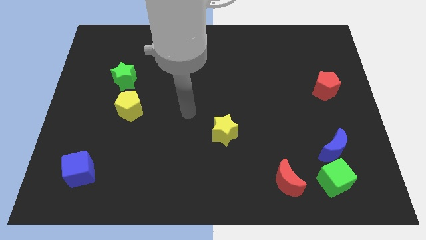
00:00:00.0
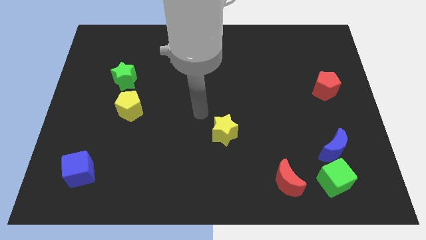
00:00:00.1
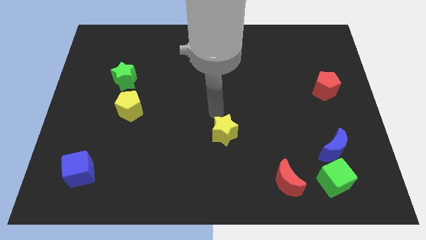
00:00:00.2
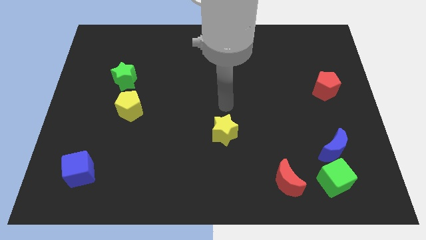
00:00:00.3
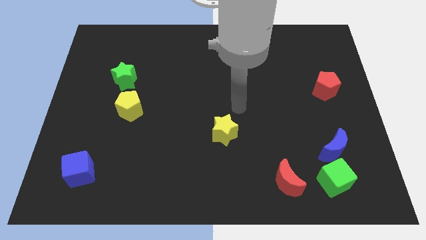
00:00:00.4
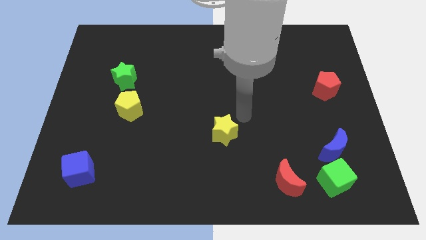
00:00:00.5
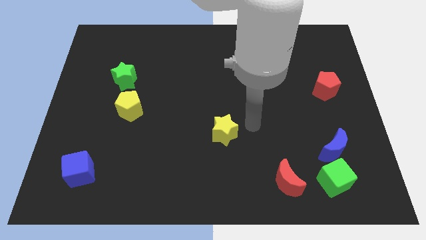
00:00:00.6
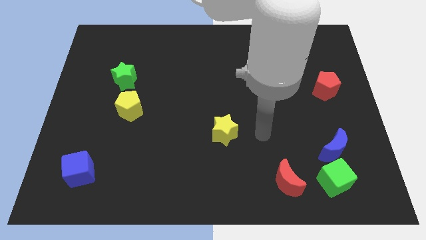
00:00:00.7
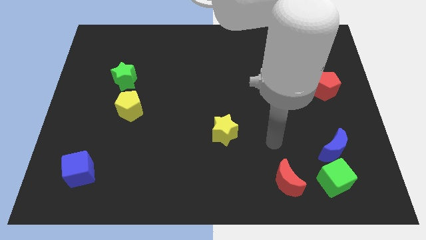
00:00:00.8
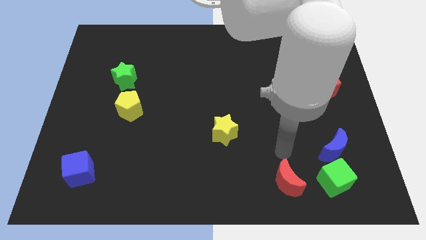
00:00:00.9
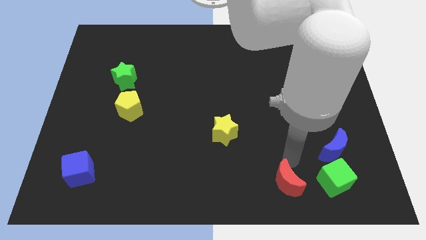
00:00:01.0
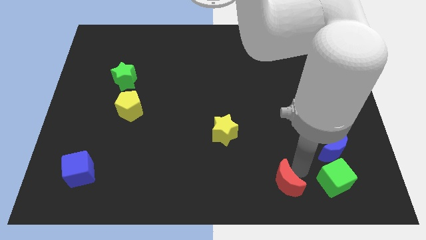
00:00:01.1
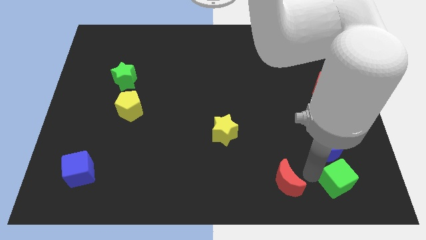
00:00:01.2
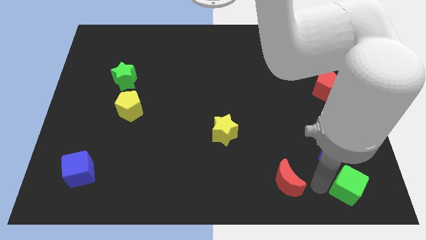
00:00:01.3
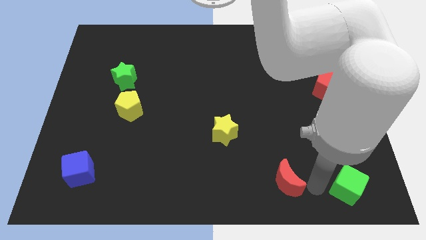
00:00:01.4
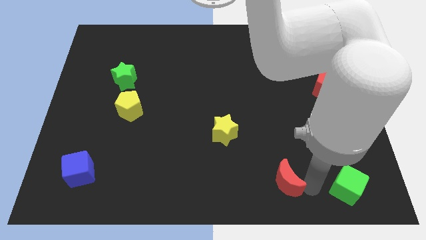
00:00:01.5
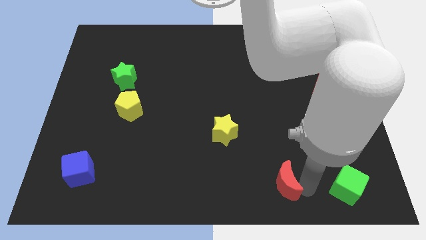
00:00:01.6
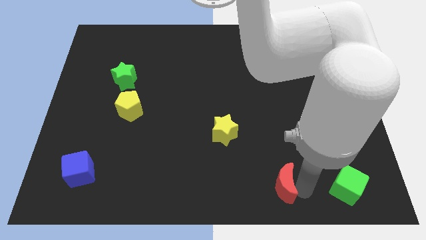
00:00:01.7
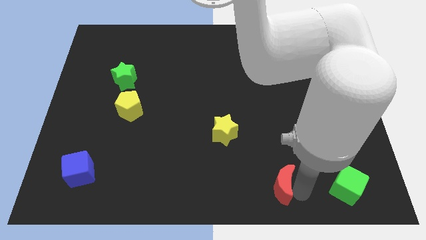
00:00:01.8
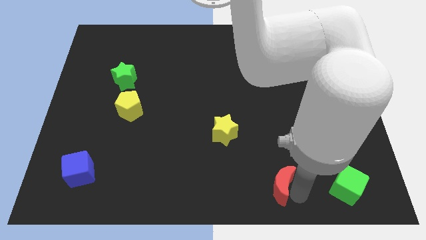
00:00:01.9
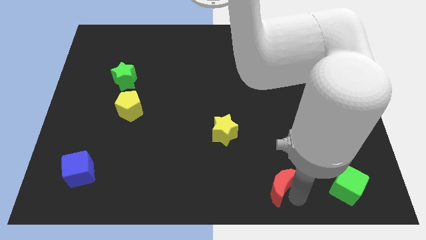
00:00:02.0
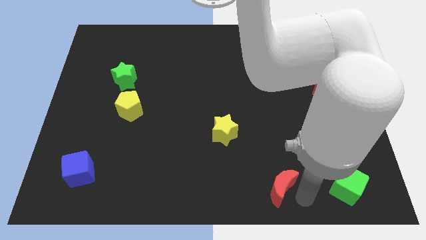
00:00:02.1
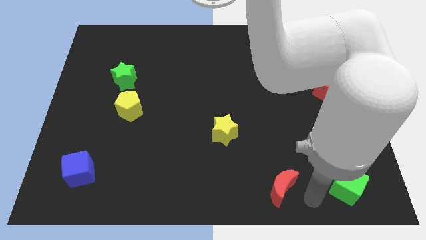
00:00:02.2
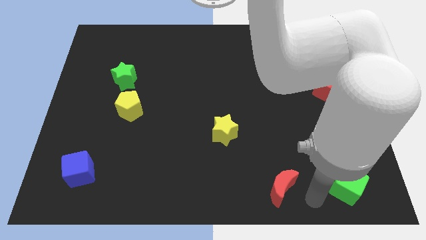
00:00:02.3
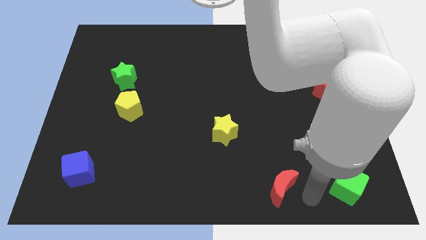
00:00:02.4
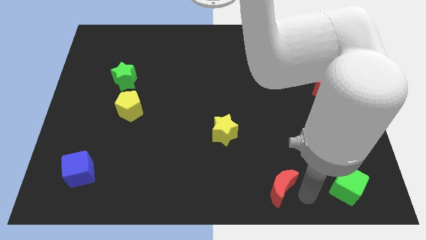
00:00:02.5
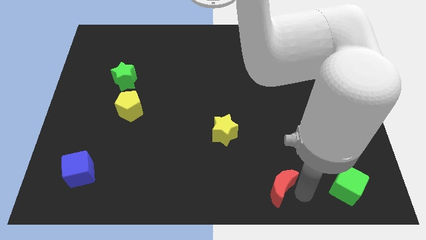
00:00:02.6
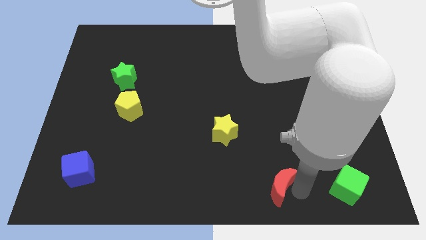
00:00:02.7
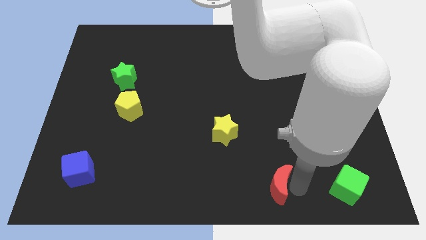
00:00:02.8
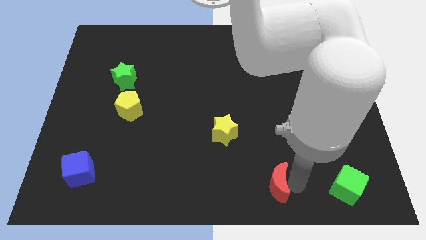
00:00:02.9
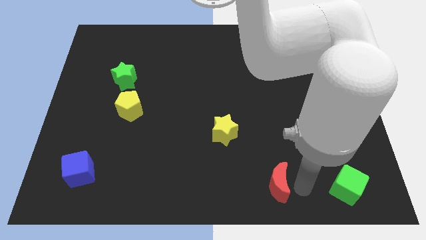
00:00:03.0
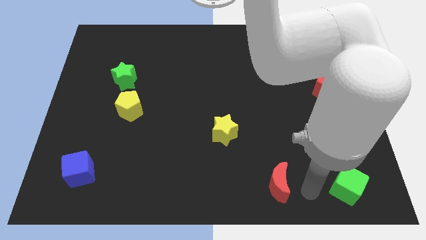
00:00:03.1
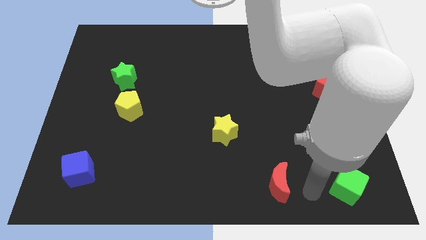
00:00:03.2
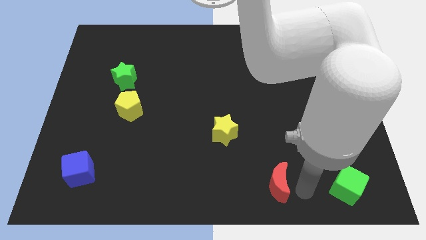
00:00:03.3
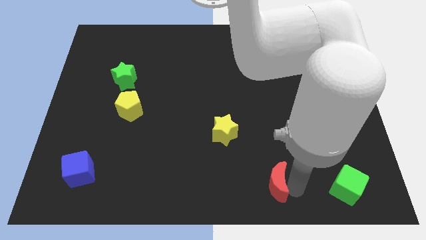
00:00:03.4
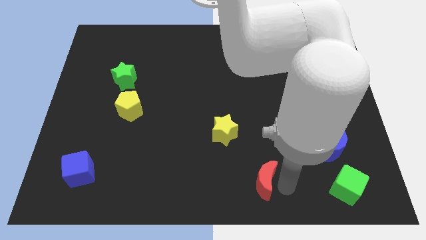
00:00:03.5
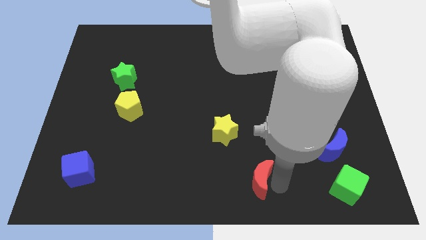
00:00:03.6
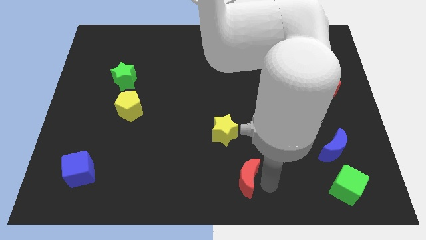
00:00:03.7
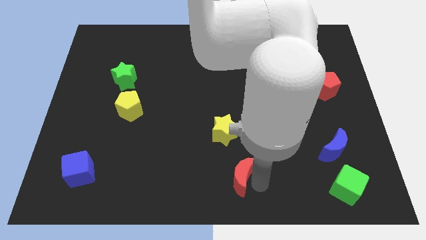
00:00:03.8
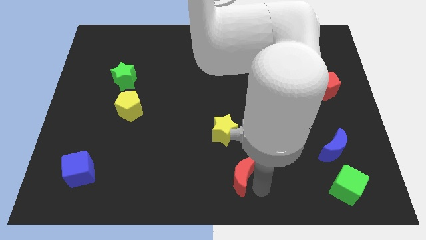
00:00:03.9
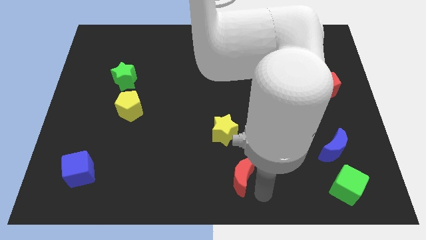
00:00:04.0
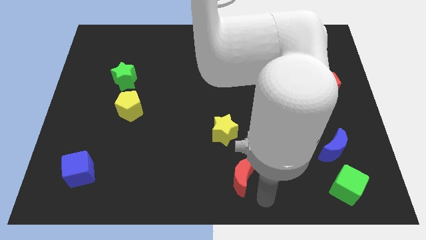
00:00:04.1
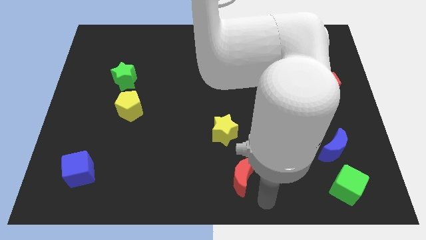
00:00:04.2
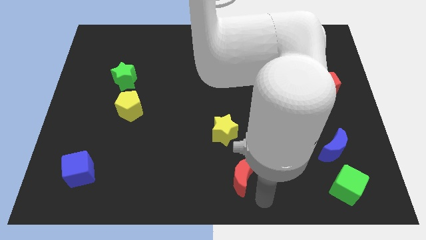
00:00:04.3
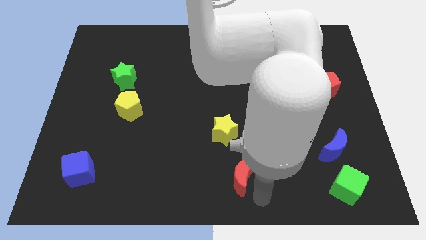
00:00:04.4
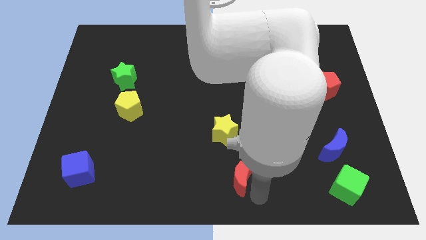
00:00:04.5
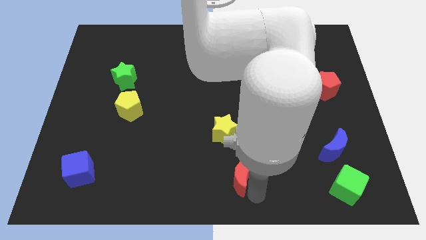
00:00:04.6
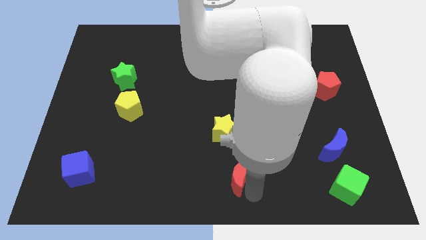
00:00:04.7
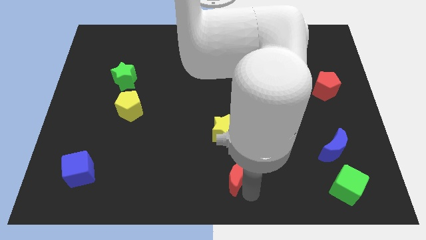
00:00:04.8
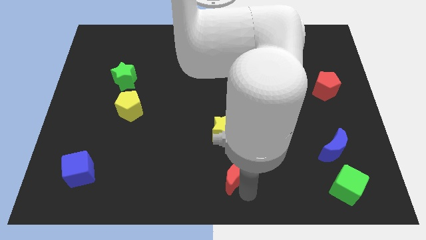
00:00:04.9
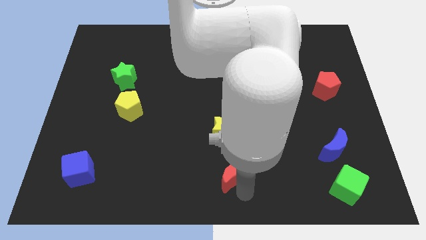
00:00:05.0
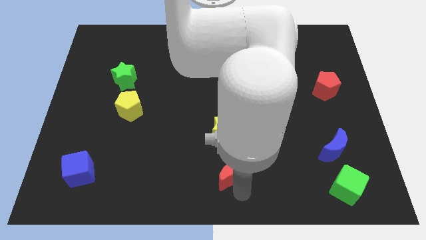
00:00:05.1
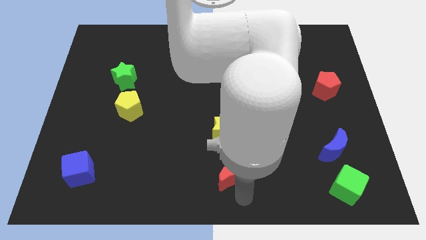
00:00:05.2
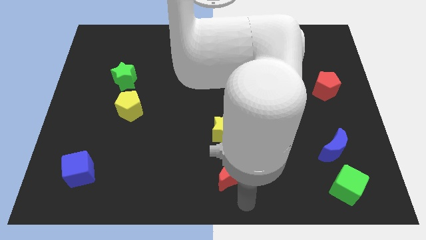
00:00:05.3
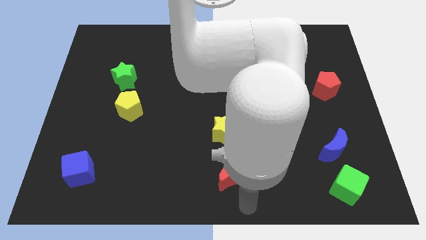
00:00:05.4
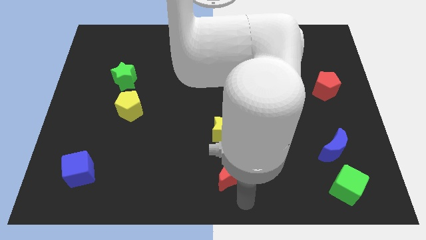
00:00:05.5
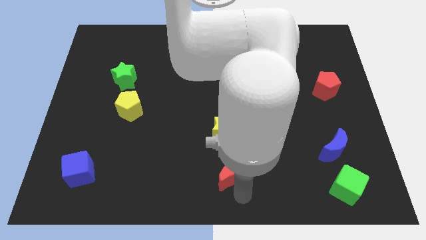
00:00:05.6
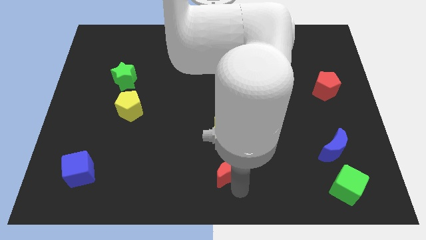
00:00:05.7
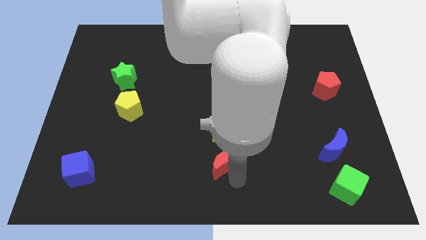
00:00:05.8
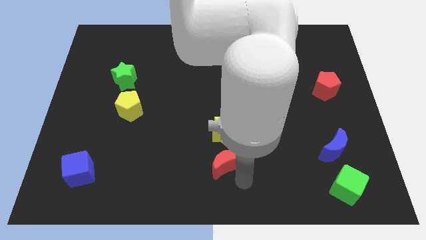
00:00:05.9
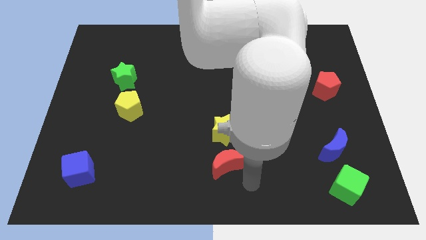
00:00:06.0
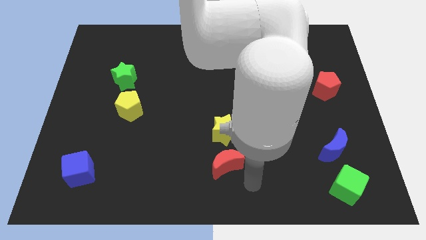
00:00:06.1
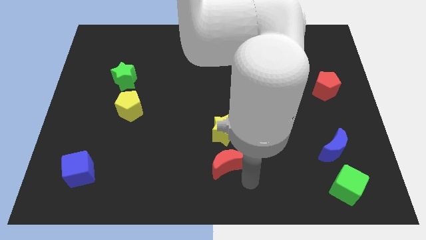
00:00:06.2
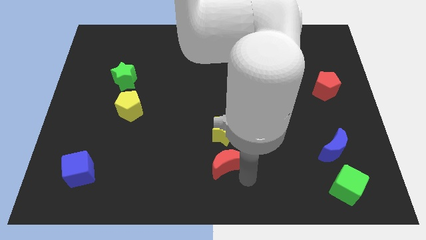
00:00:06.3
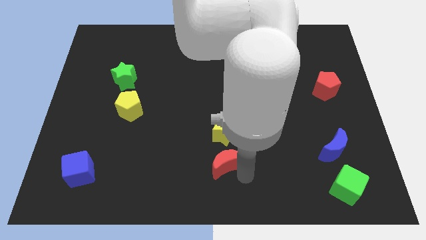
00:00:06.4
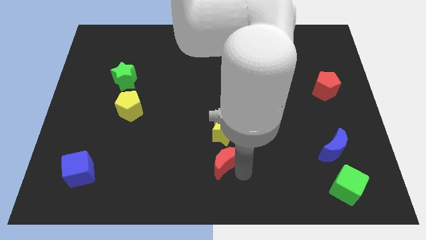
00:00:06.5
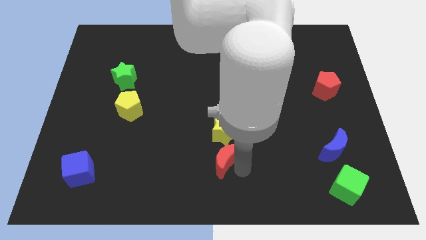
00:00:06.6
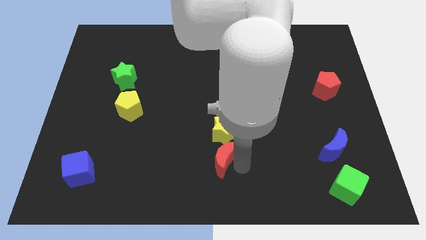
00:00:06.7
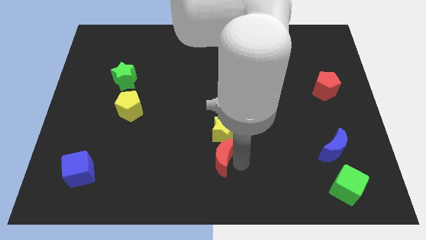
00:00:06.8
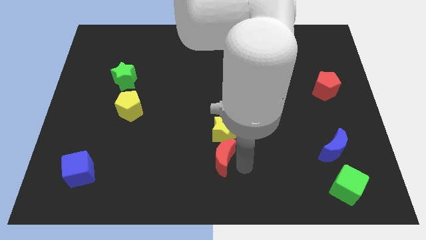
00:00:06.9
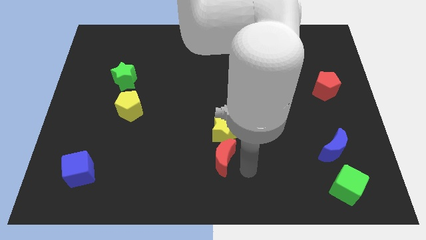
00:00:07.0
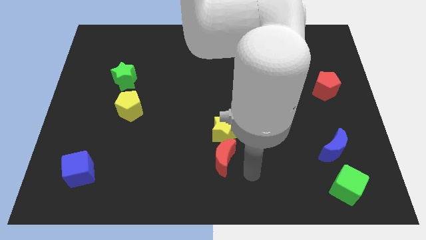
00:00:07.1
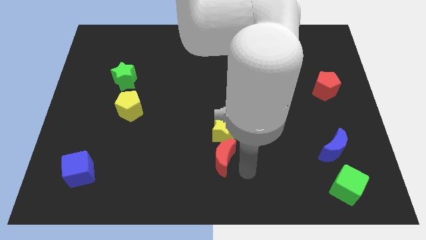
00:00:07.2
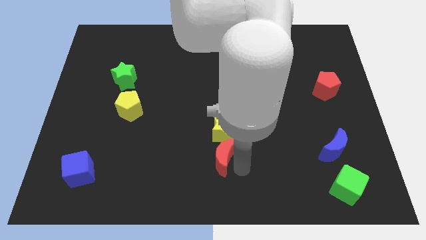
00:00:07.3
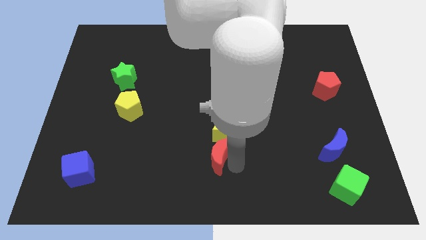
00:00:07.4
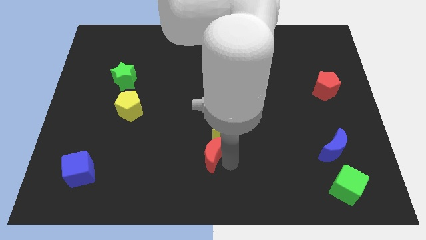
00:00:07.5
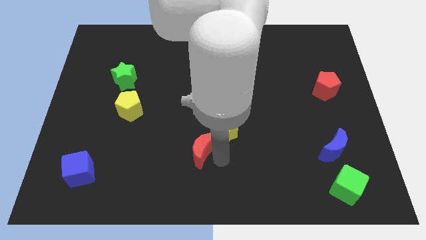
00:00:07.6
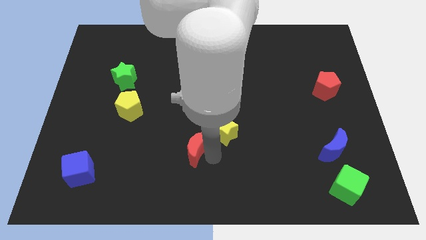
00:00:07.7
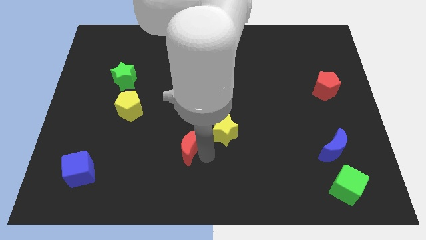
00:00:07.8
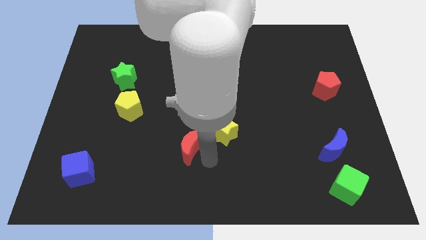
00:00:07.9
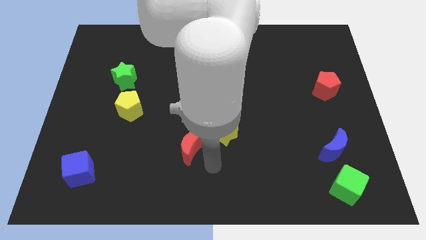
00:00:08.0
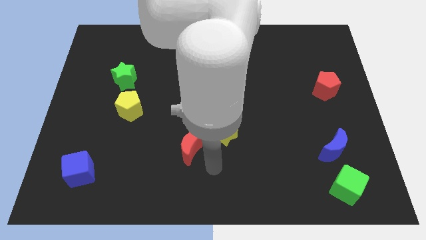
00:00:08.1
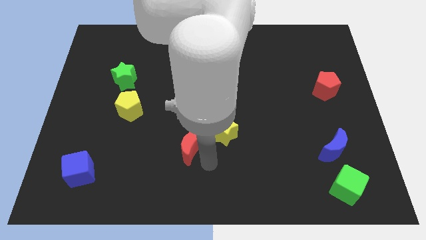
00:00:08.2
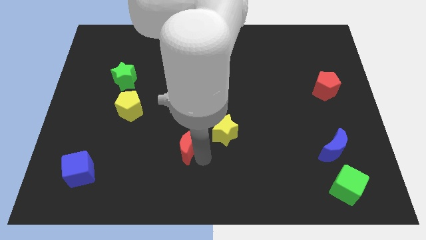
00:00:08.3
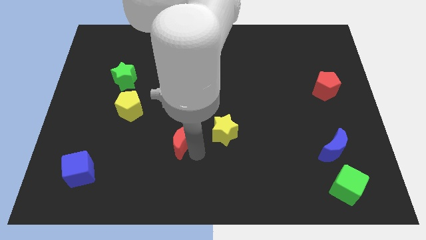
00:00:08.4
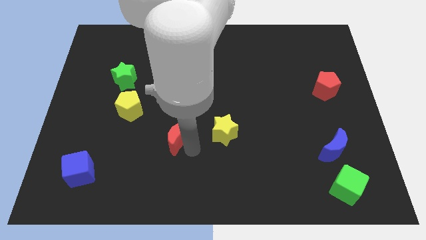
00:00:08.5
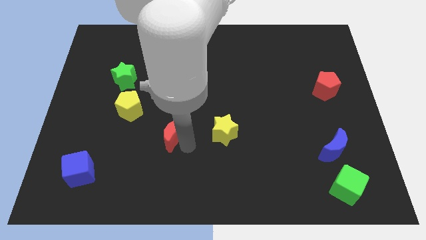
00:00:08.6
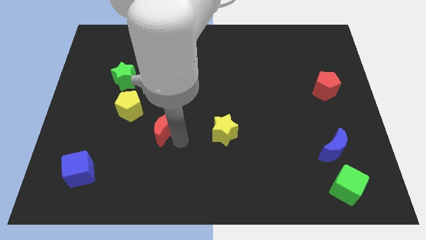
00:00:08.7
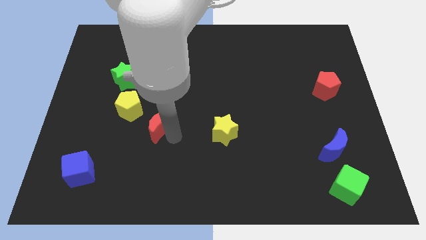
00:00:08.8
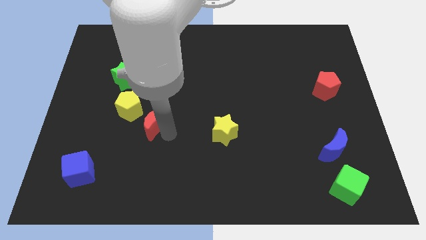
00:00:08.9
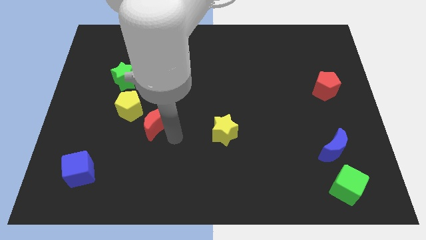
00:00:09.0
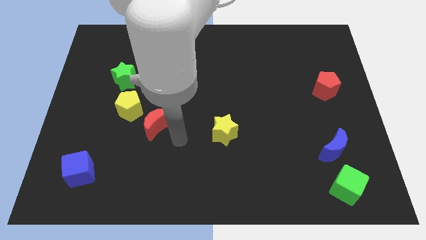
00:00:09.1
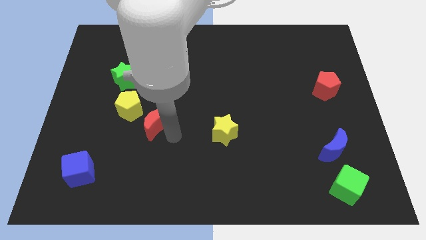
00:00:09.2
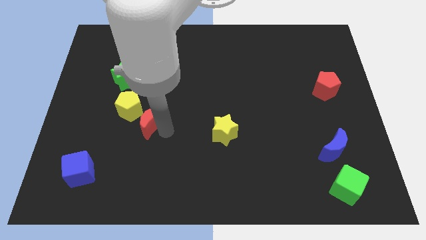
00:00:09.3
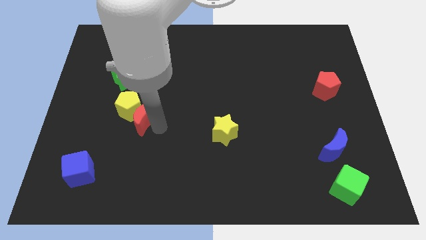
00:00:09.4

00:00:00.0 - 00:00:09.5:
put the red moon close to the yellow pentagon
